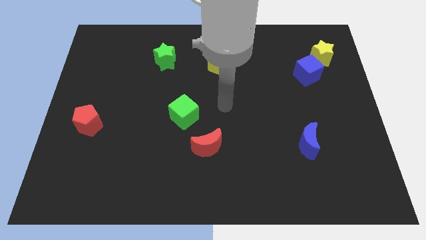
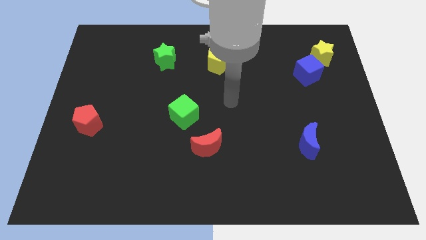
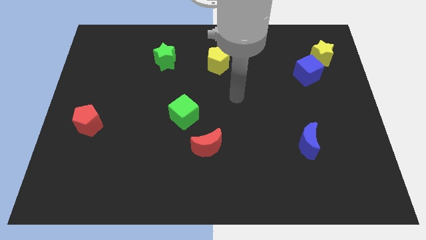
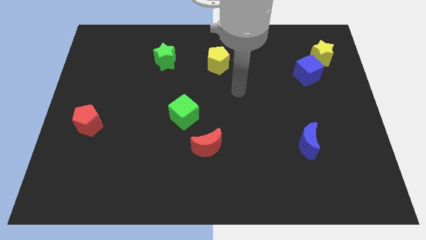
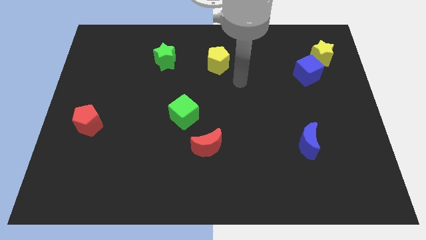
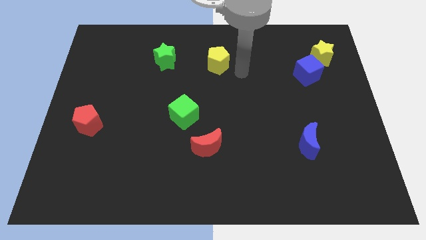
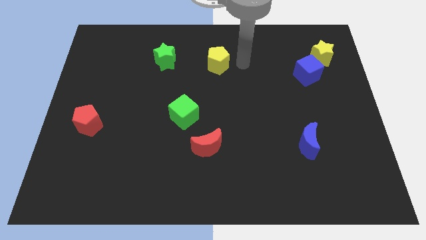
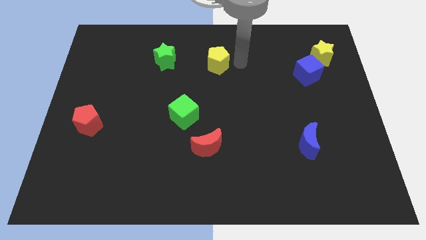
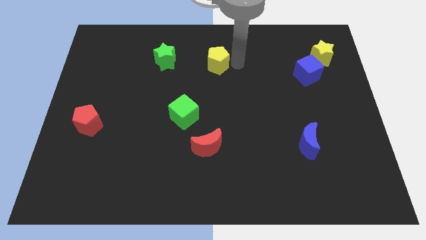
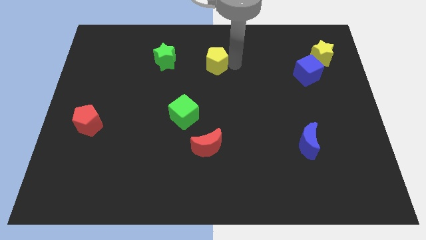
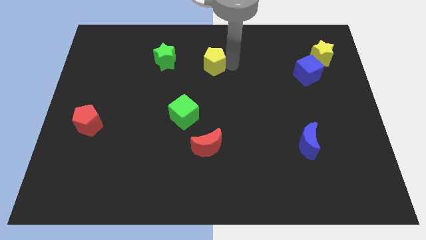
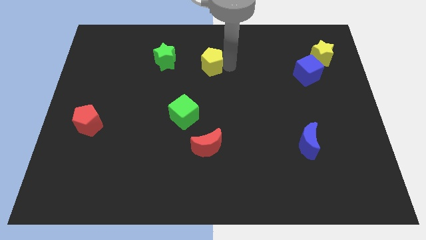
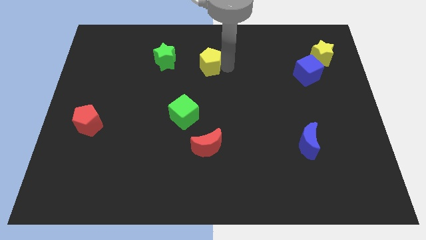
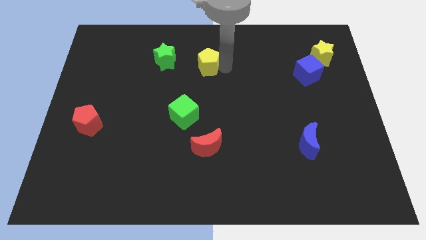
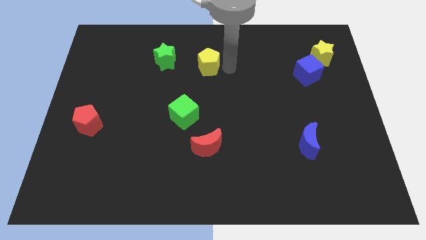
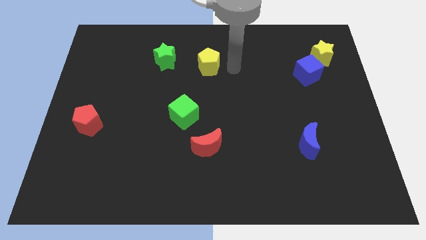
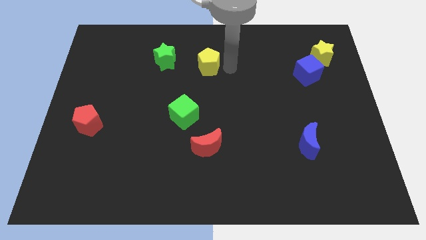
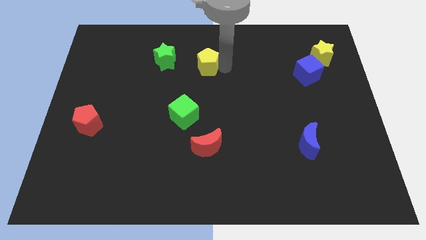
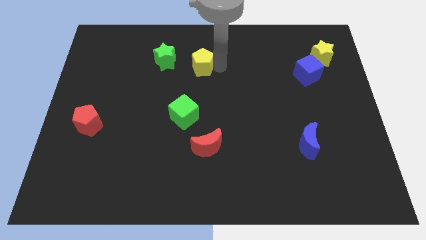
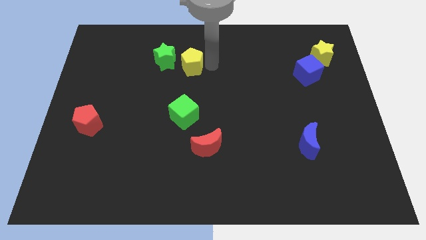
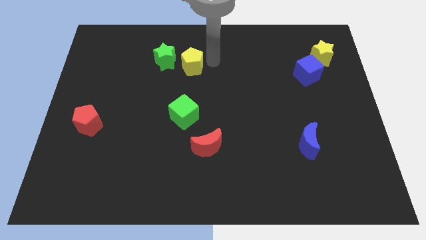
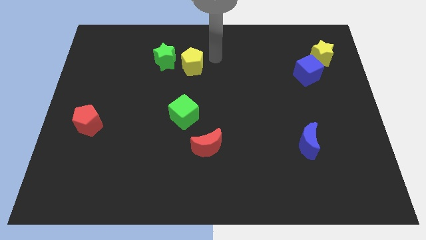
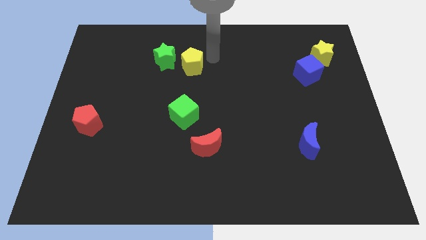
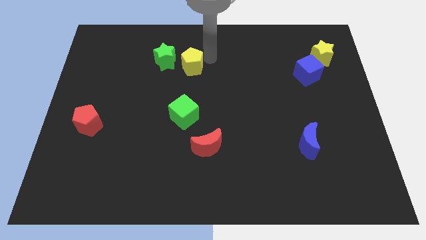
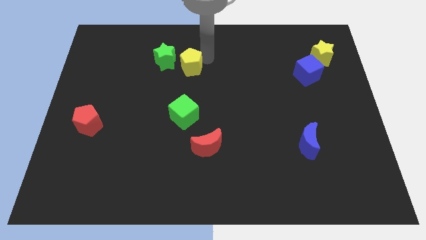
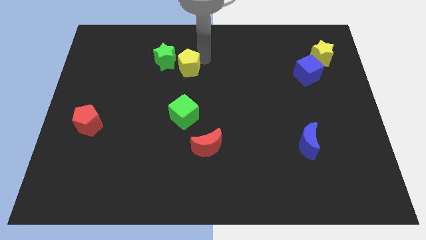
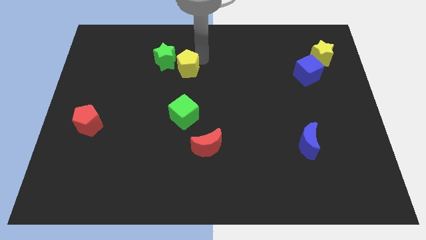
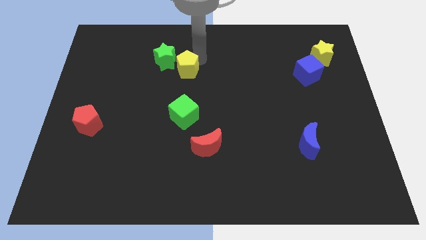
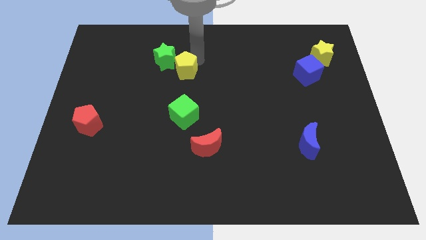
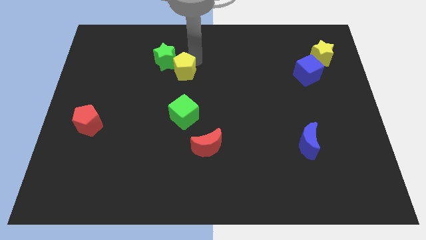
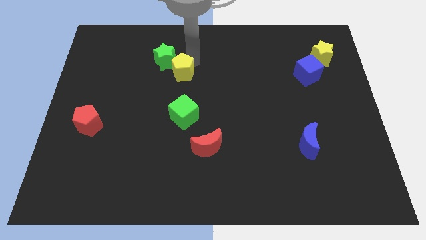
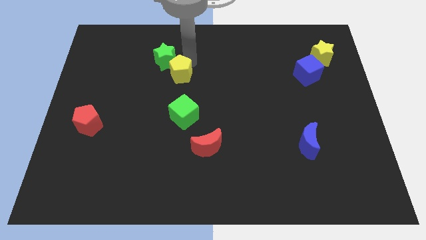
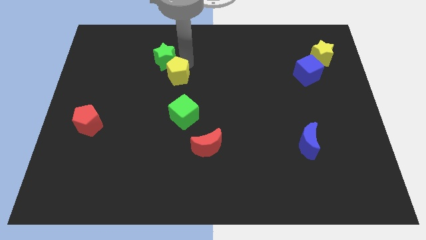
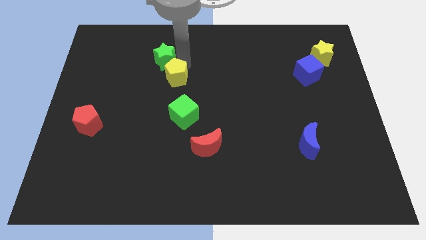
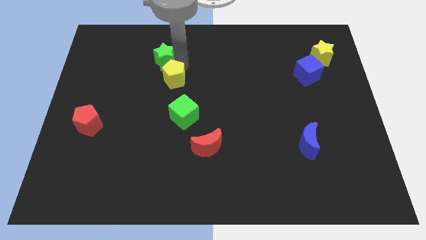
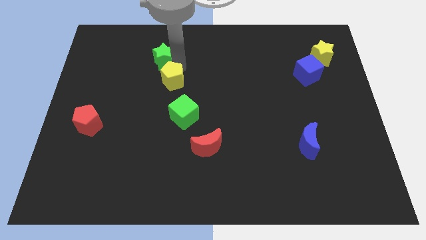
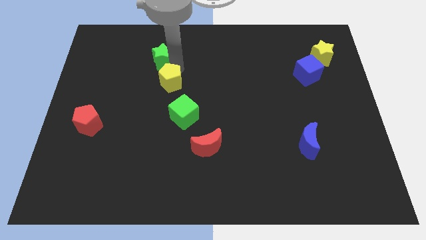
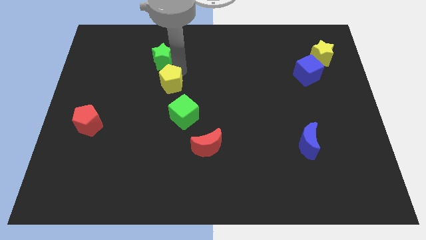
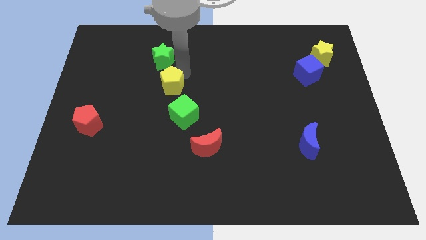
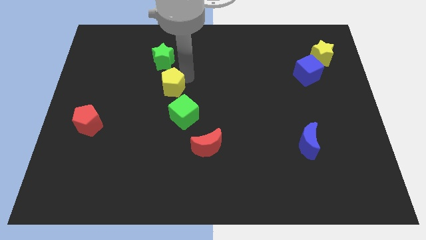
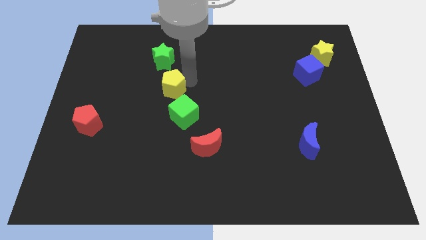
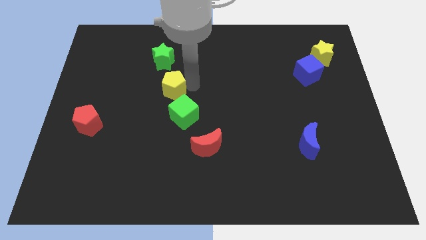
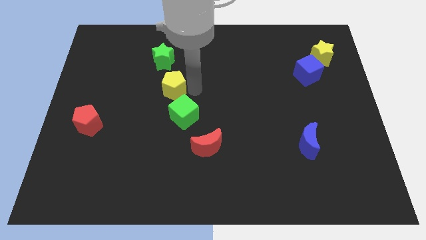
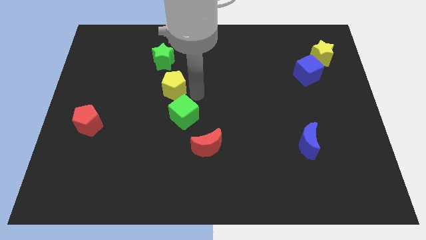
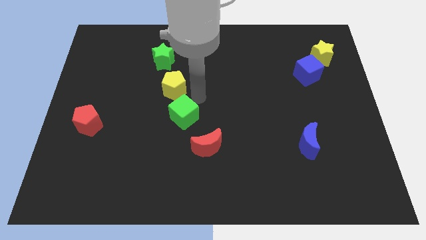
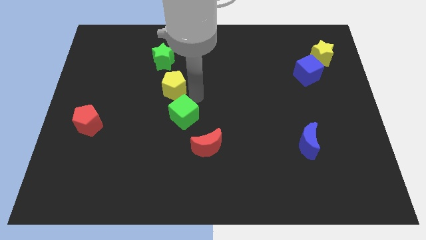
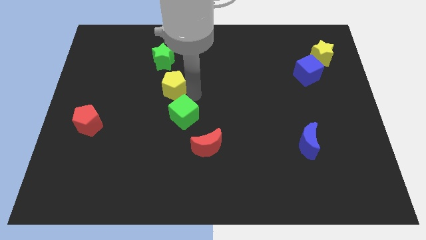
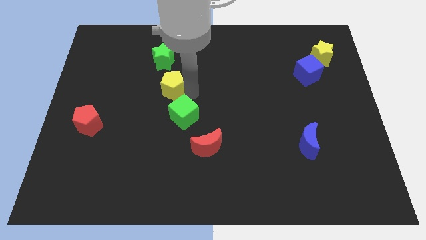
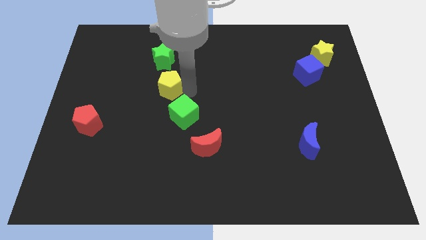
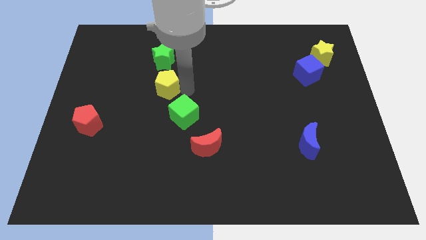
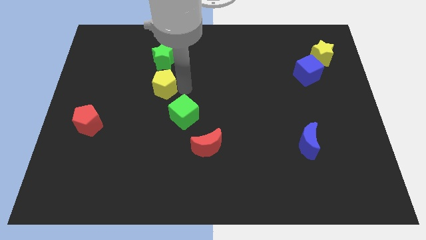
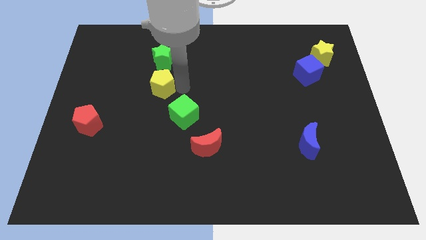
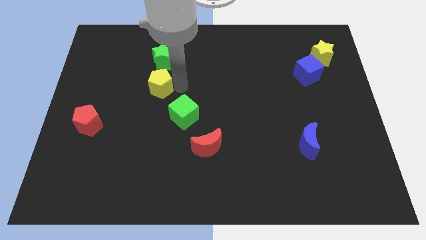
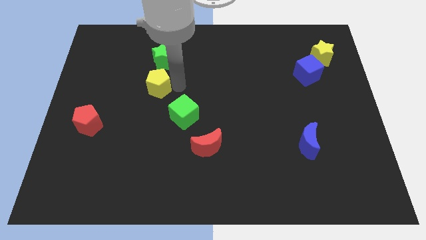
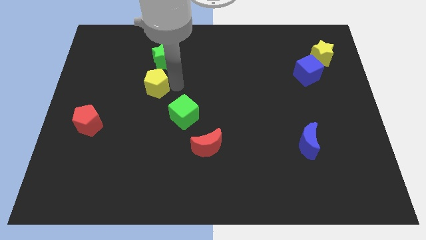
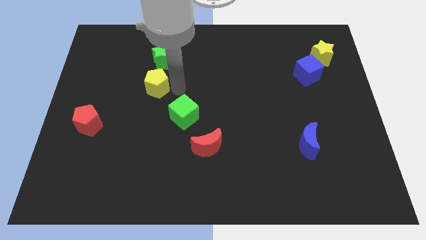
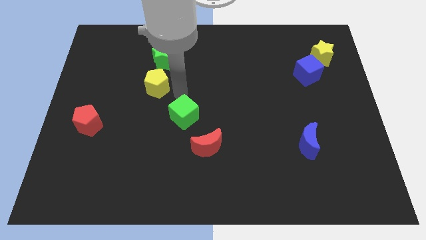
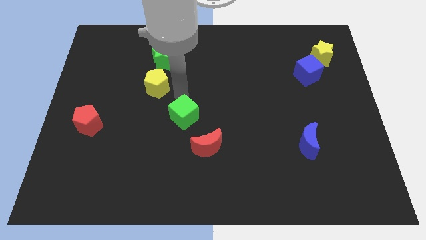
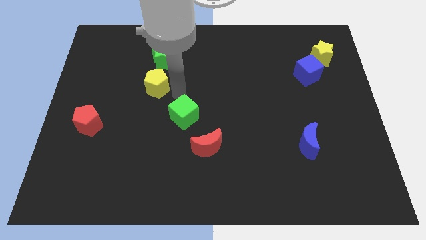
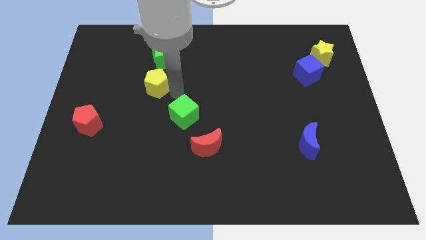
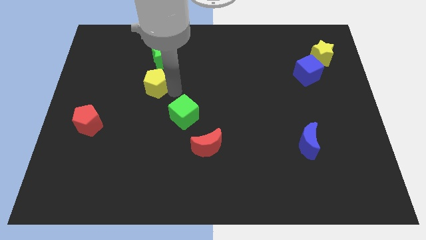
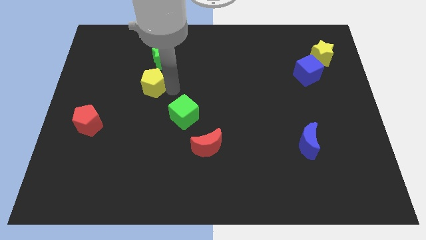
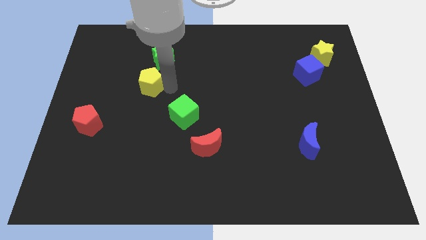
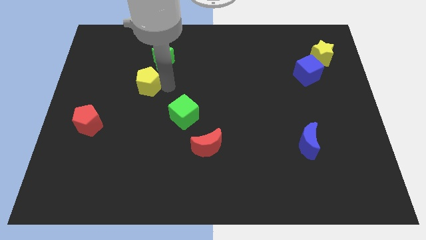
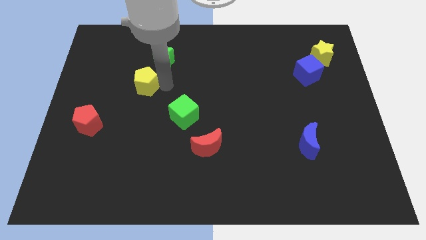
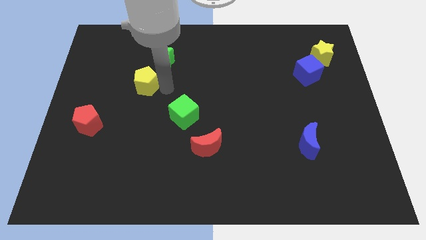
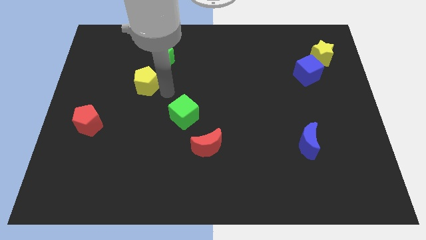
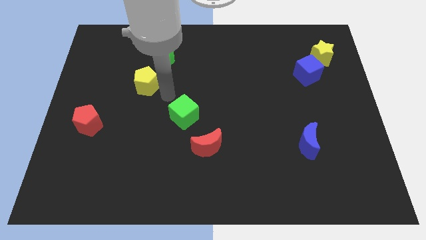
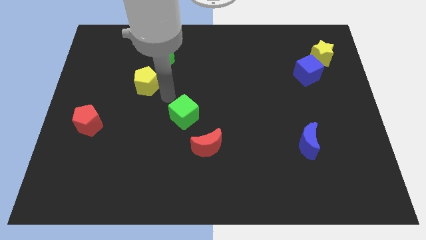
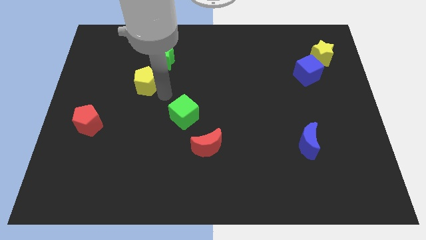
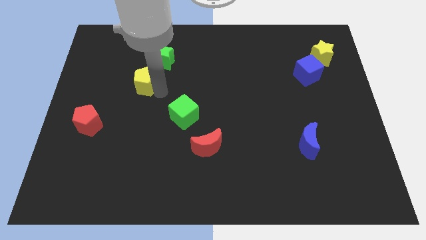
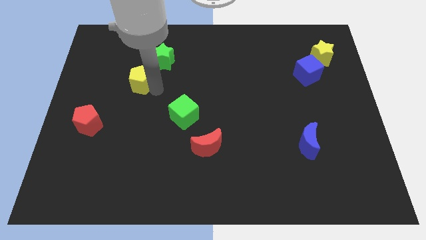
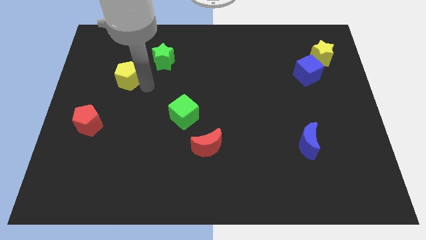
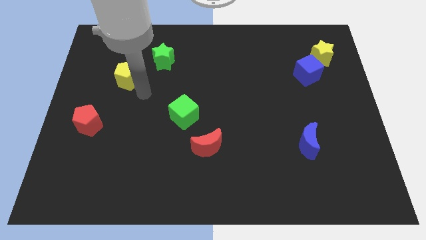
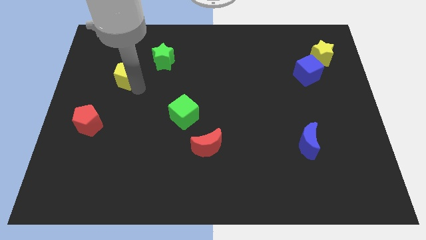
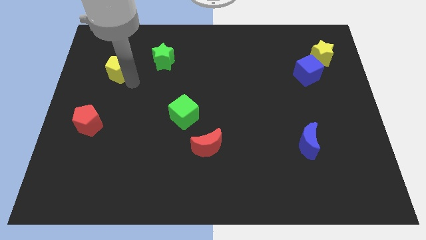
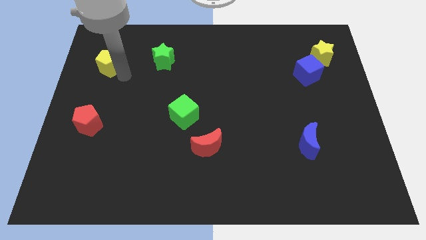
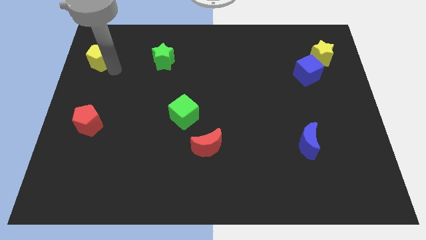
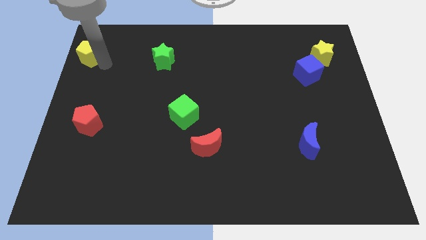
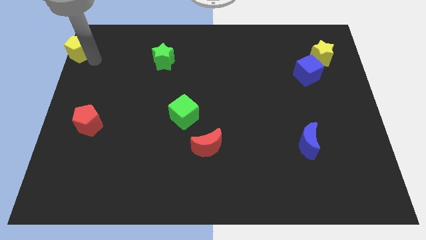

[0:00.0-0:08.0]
move the yellow pentagon to the top left of the board

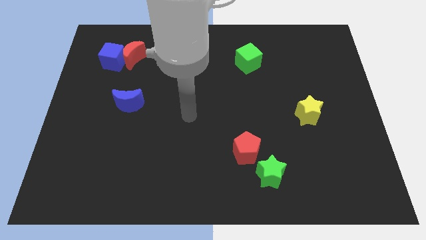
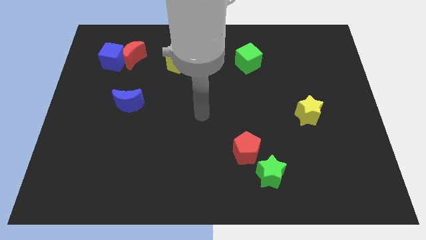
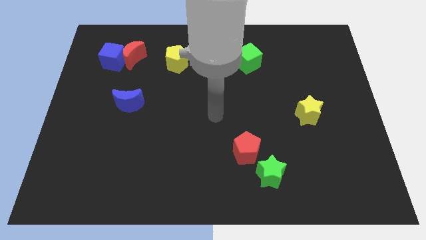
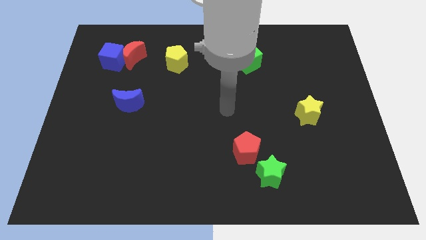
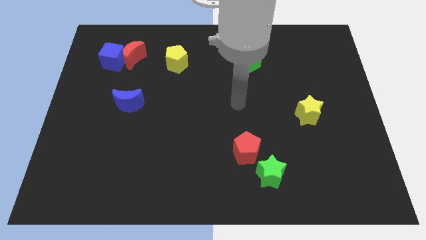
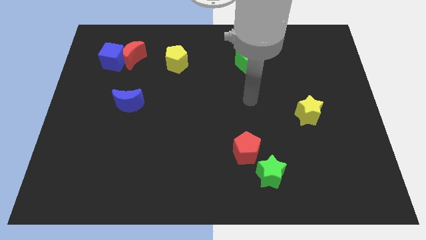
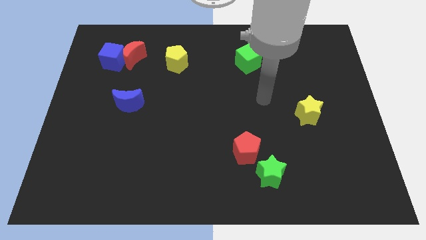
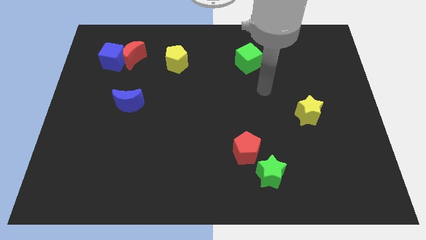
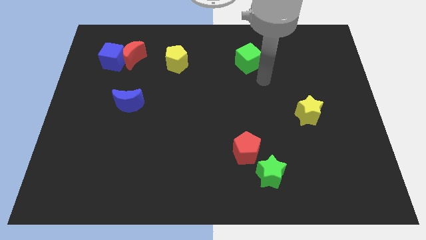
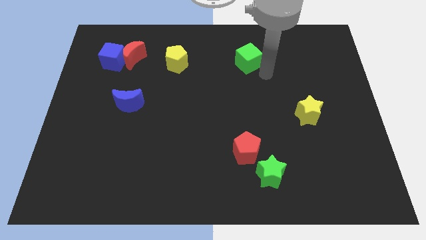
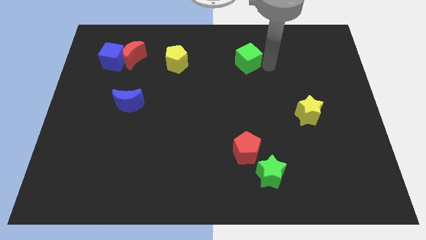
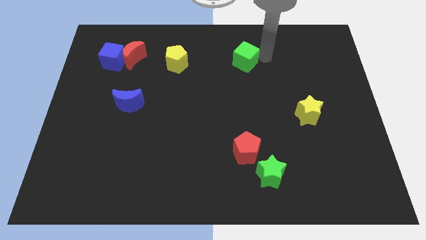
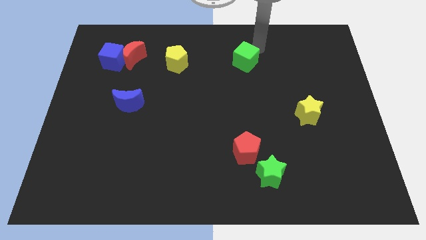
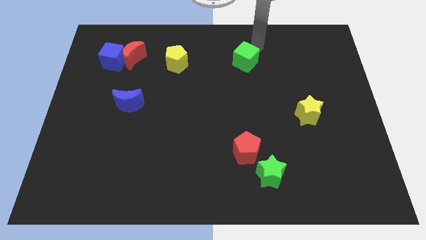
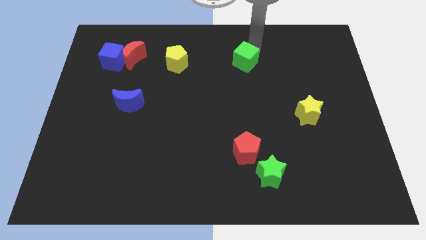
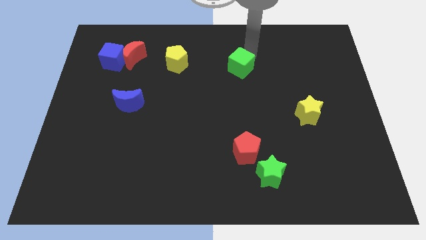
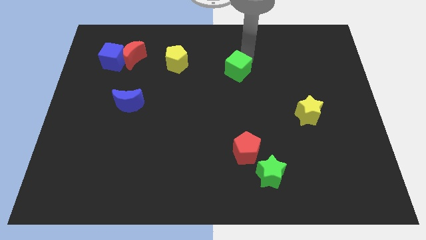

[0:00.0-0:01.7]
slide the green cube to the middle
